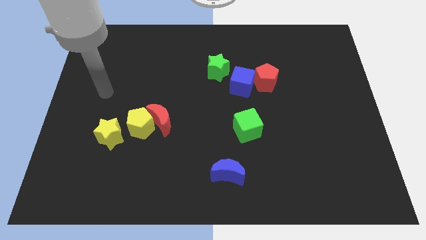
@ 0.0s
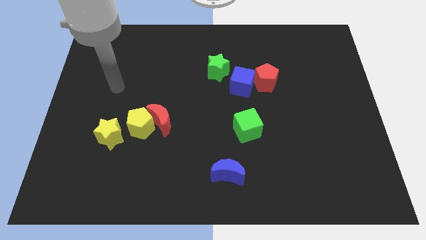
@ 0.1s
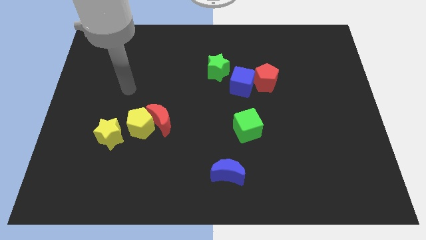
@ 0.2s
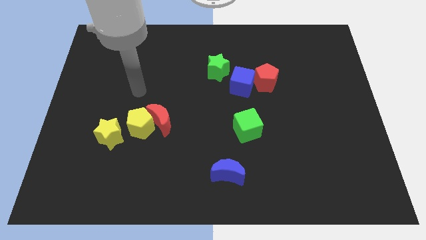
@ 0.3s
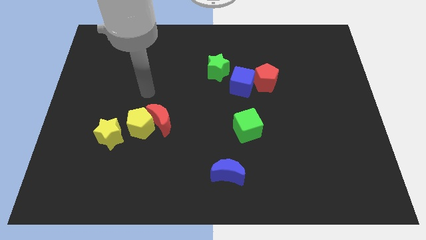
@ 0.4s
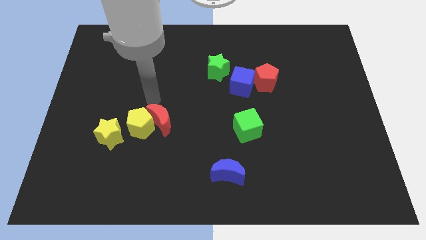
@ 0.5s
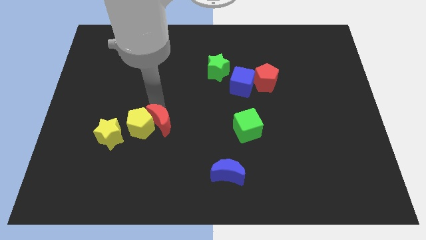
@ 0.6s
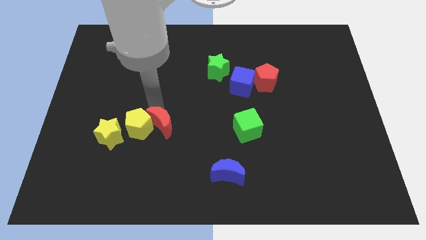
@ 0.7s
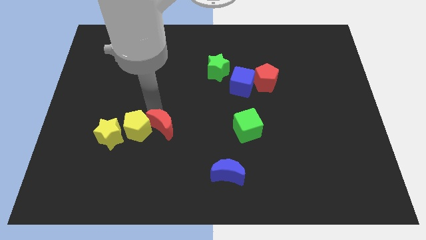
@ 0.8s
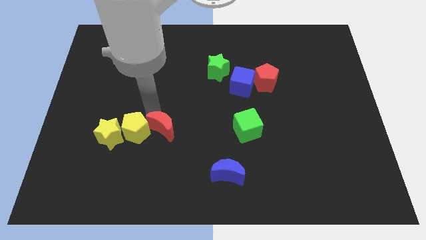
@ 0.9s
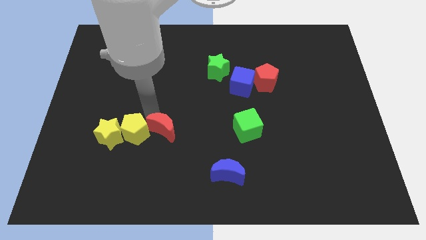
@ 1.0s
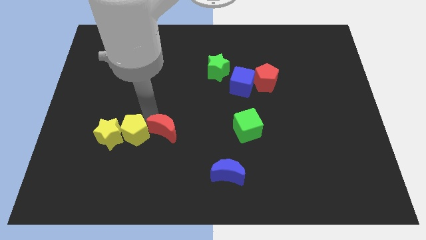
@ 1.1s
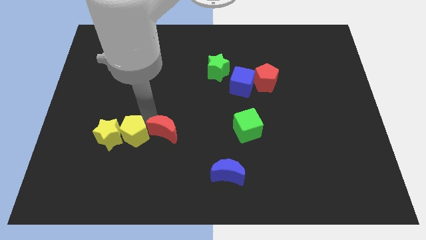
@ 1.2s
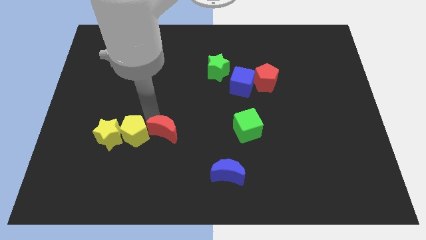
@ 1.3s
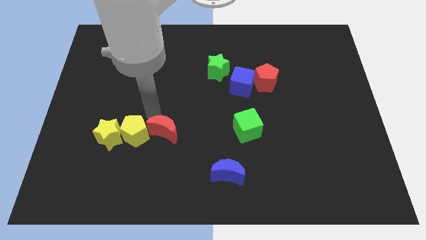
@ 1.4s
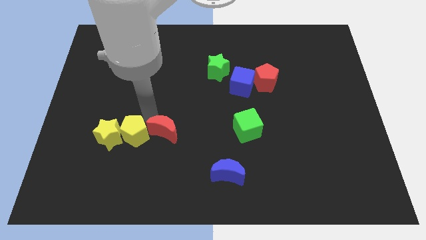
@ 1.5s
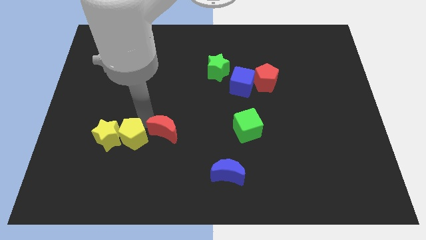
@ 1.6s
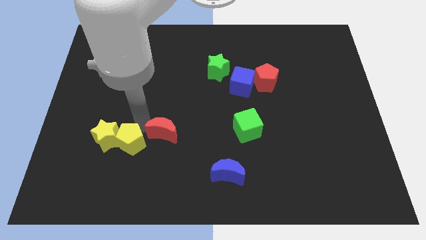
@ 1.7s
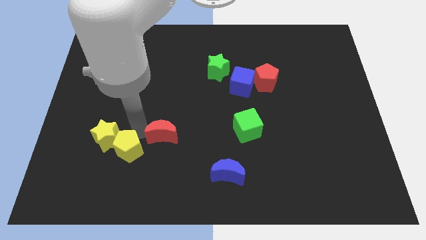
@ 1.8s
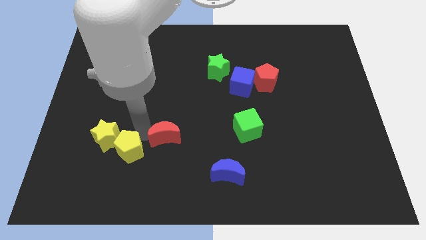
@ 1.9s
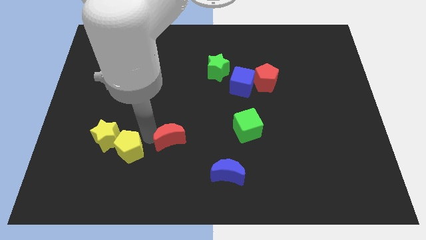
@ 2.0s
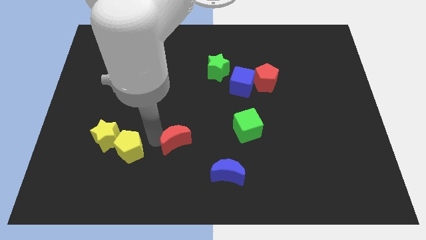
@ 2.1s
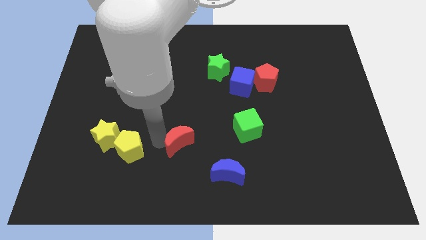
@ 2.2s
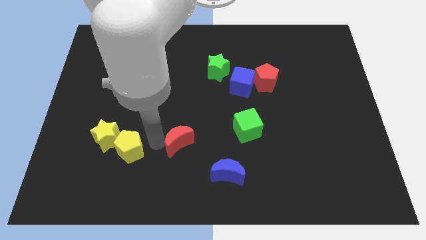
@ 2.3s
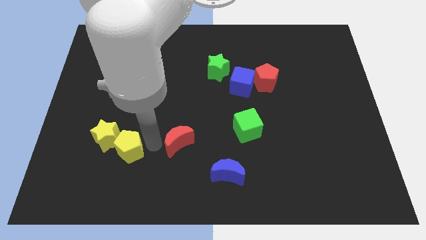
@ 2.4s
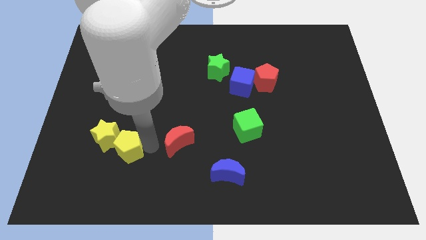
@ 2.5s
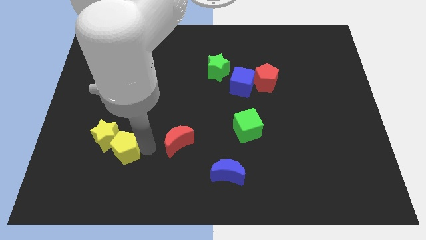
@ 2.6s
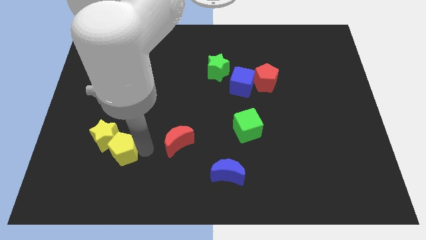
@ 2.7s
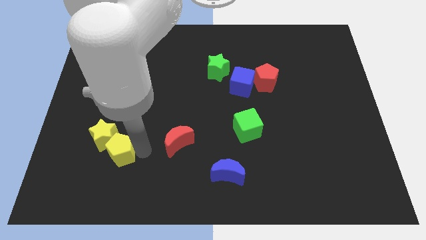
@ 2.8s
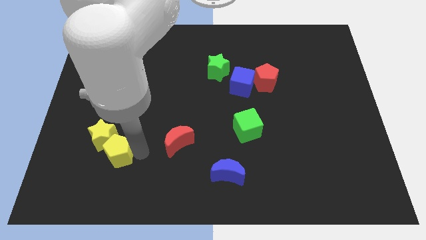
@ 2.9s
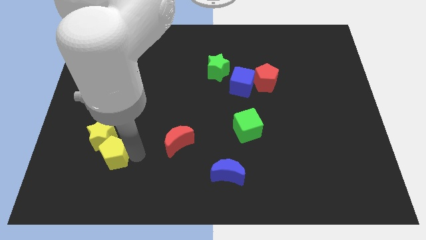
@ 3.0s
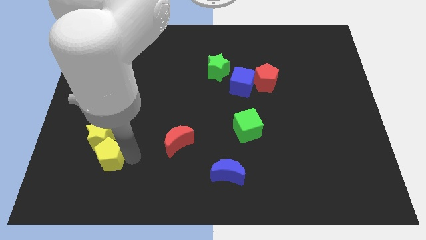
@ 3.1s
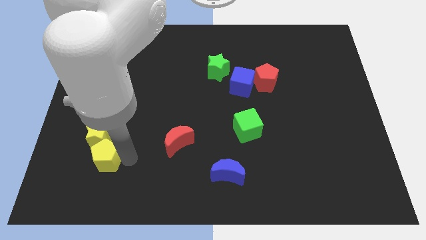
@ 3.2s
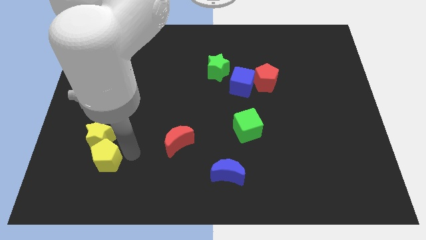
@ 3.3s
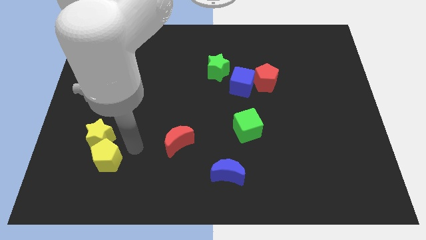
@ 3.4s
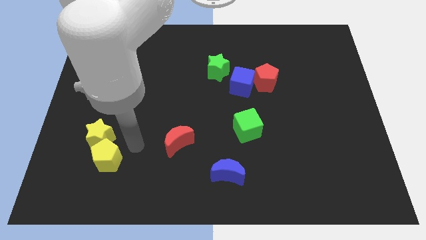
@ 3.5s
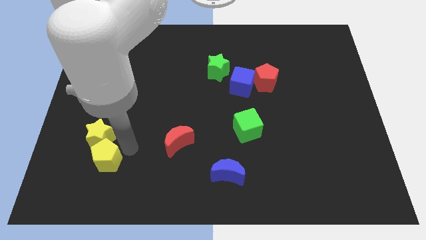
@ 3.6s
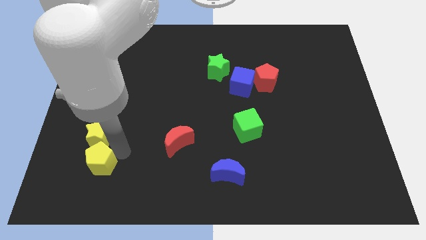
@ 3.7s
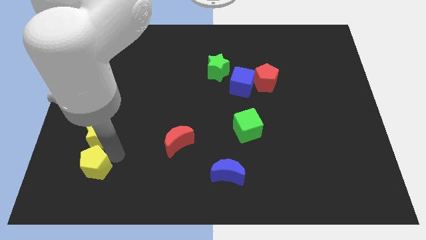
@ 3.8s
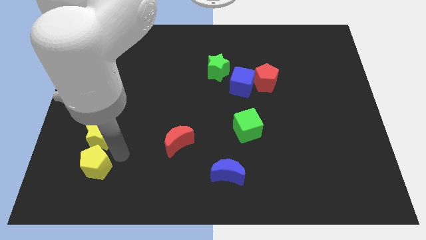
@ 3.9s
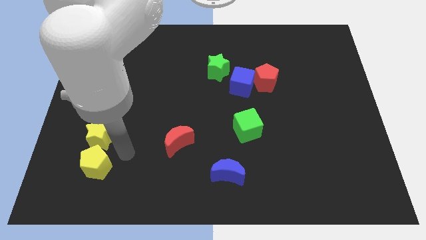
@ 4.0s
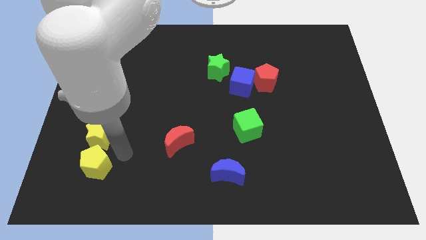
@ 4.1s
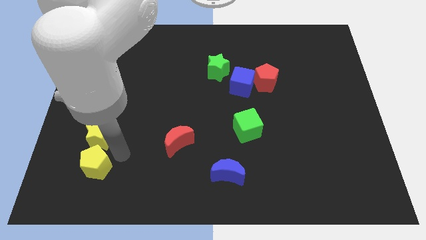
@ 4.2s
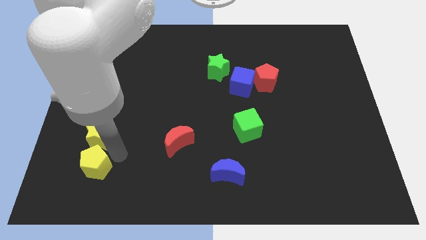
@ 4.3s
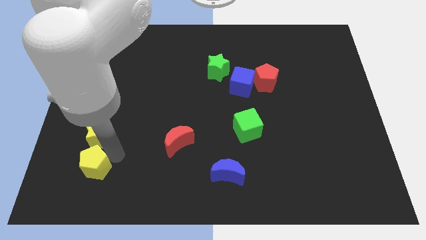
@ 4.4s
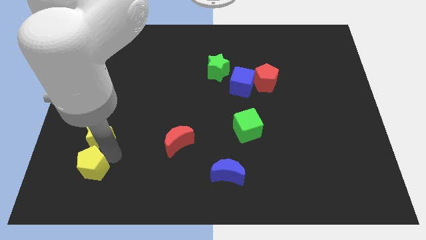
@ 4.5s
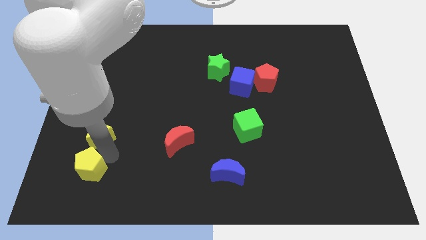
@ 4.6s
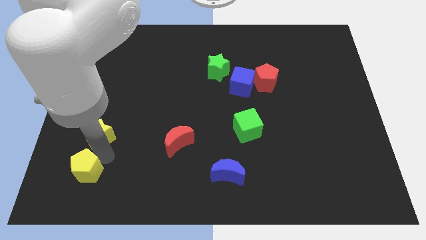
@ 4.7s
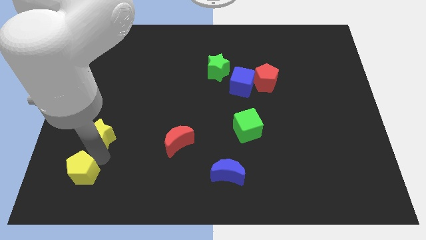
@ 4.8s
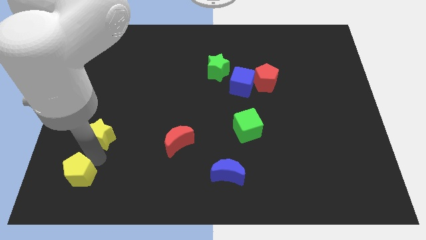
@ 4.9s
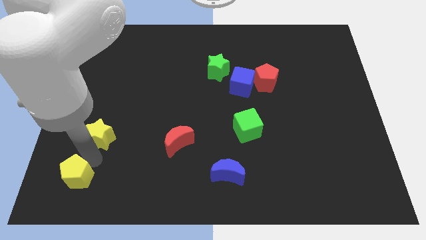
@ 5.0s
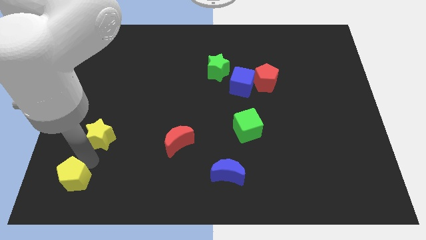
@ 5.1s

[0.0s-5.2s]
move the yellow pentagon to the bottom left of the board
